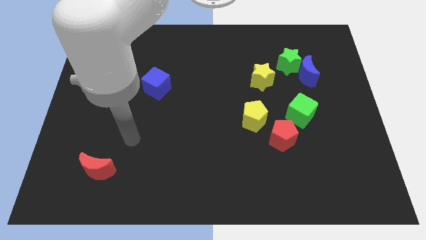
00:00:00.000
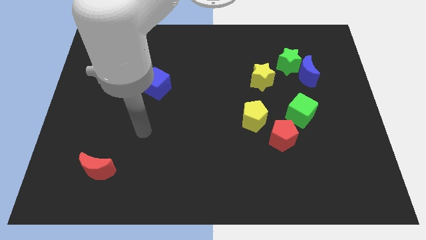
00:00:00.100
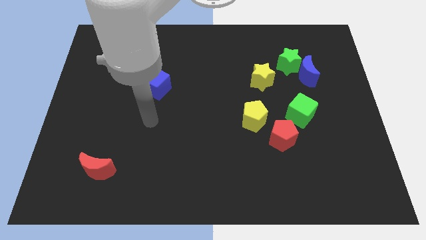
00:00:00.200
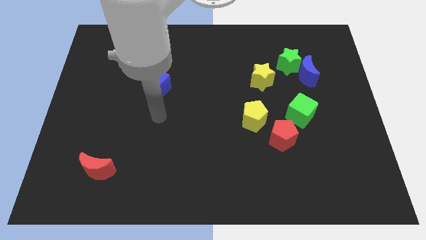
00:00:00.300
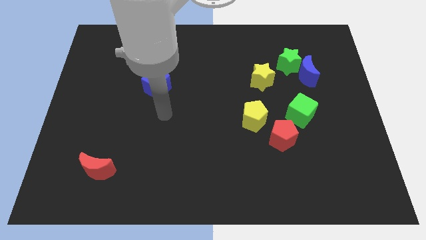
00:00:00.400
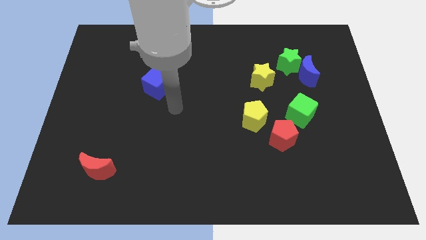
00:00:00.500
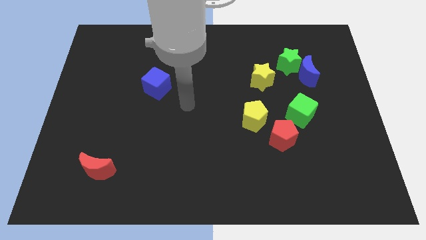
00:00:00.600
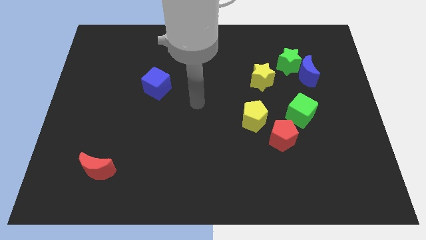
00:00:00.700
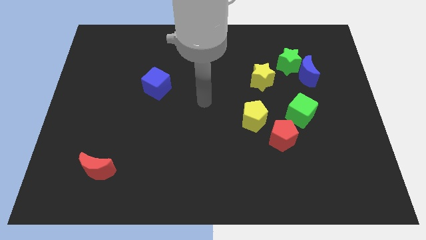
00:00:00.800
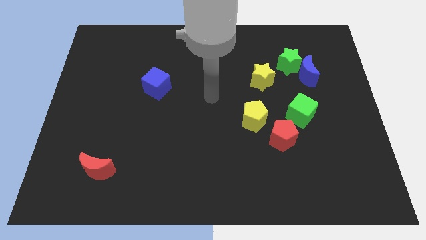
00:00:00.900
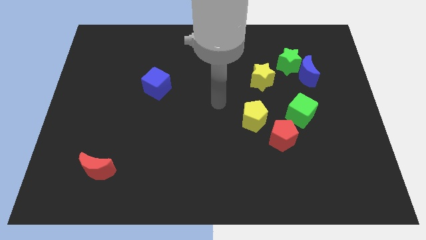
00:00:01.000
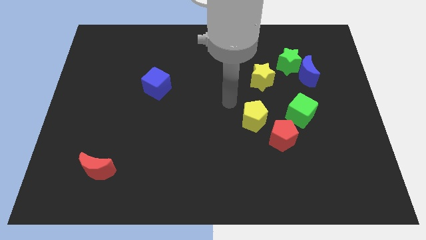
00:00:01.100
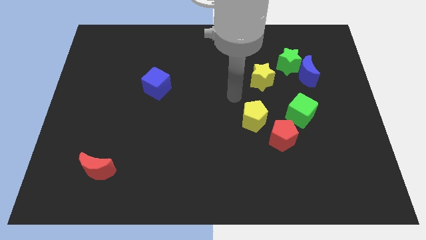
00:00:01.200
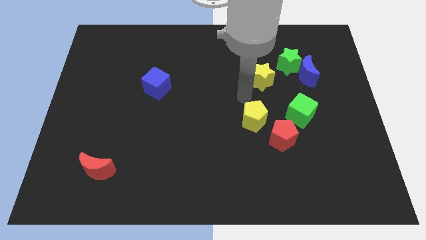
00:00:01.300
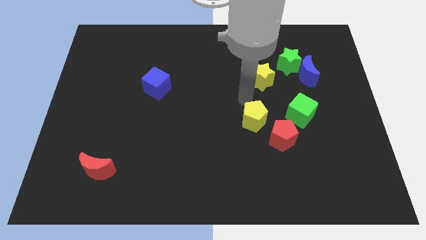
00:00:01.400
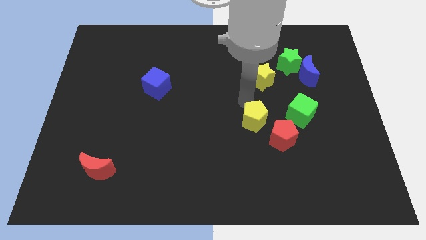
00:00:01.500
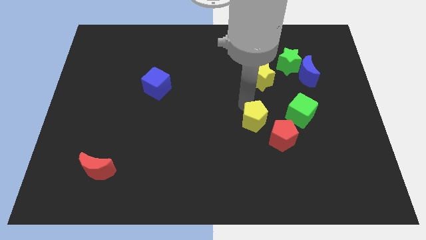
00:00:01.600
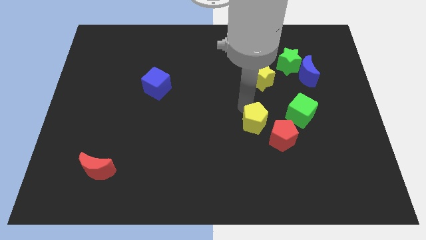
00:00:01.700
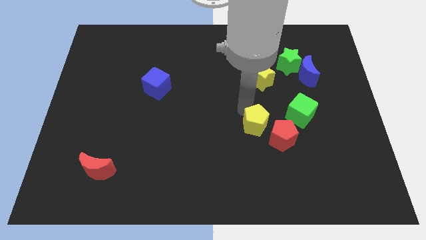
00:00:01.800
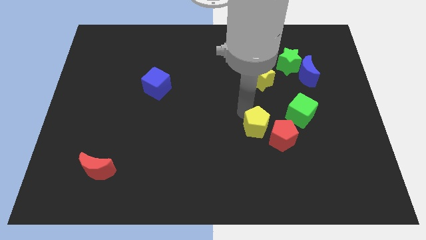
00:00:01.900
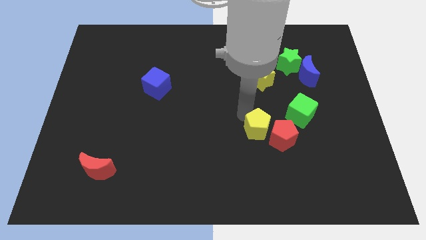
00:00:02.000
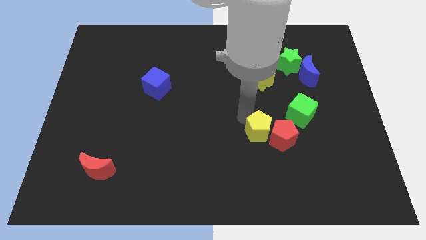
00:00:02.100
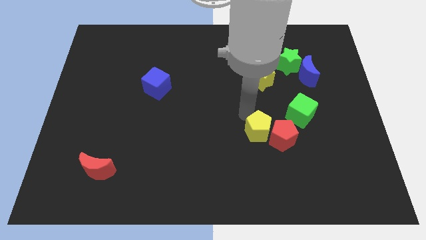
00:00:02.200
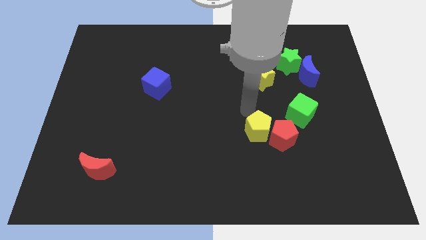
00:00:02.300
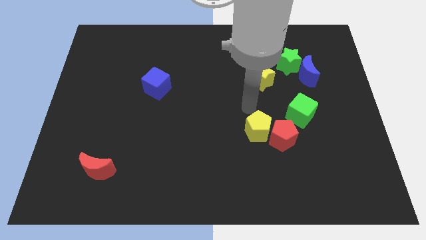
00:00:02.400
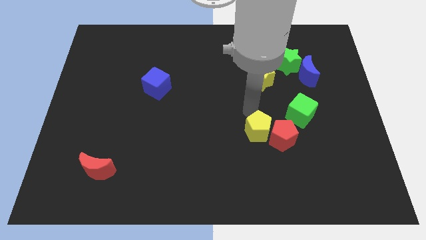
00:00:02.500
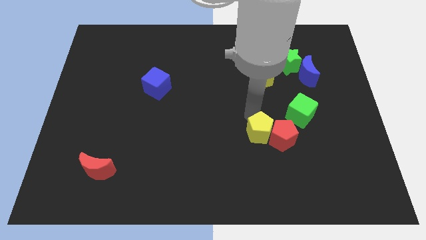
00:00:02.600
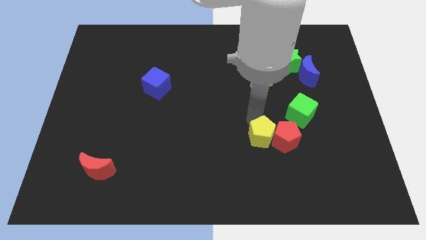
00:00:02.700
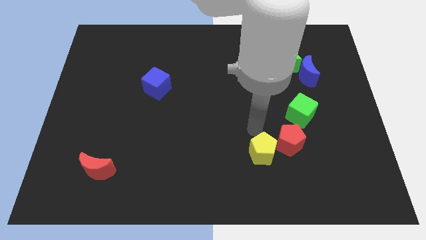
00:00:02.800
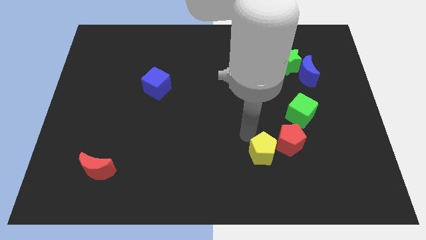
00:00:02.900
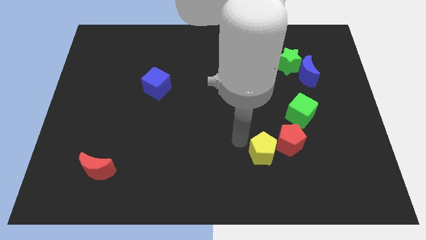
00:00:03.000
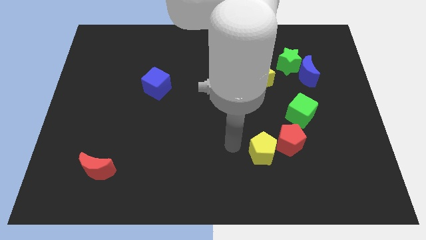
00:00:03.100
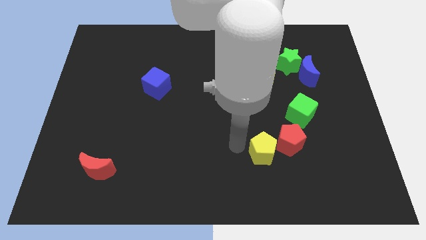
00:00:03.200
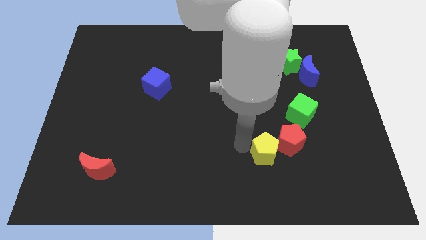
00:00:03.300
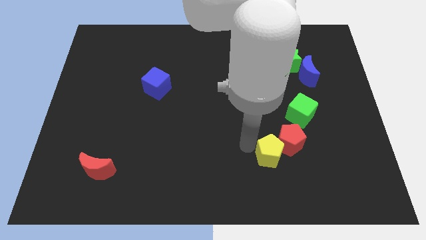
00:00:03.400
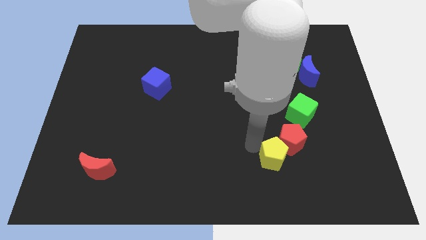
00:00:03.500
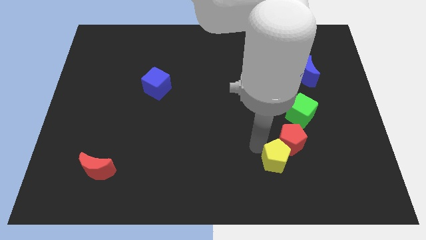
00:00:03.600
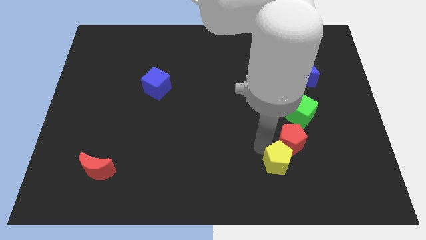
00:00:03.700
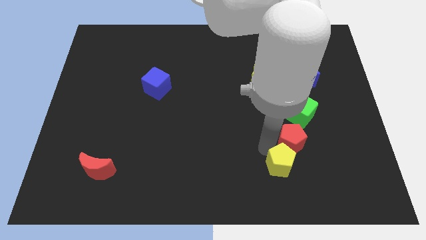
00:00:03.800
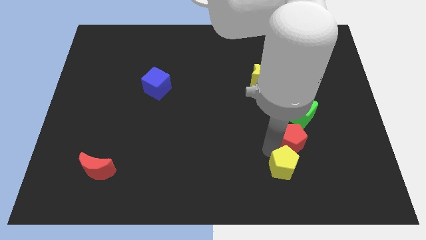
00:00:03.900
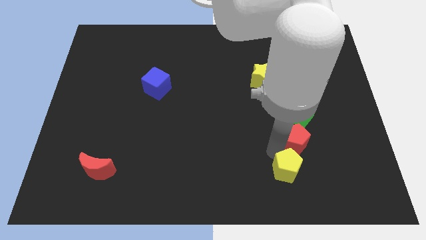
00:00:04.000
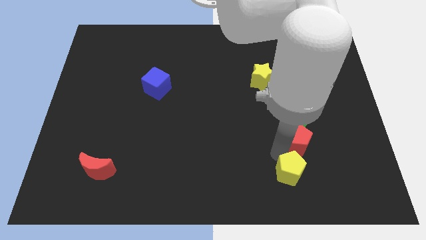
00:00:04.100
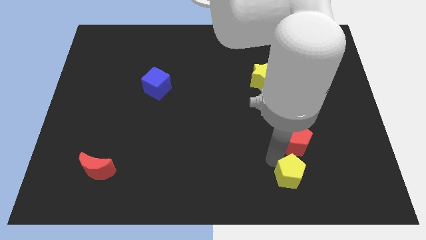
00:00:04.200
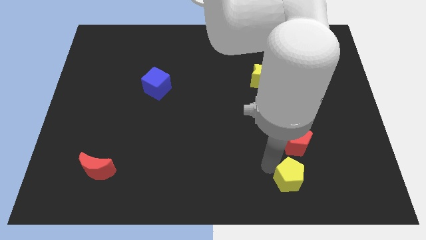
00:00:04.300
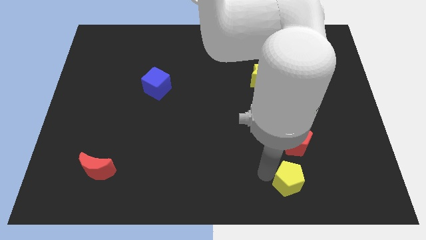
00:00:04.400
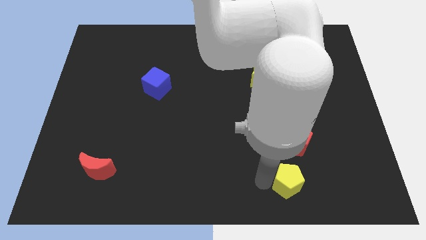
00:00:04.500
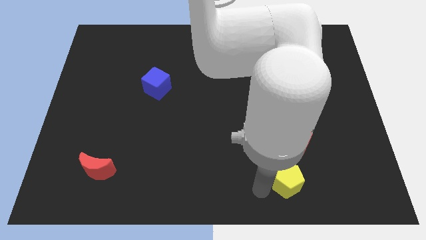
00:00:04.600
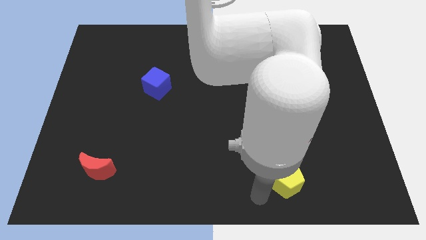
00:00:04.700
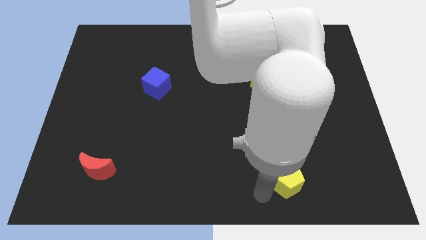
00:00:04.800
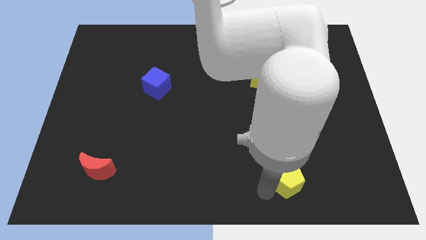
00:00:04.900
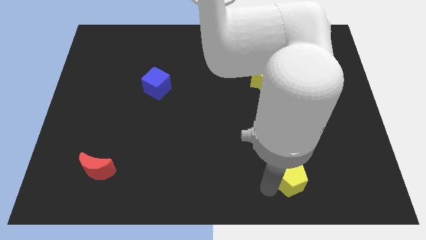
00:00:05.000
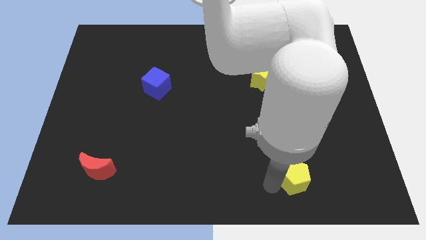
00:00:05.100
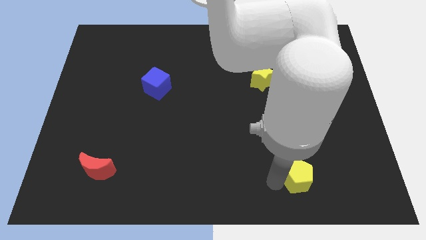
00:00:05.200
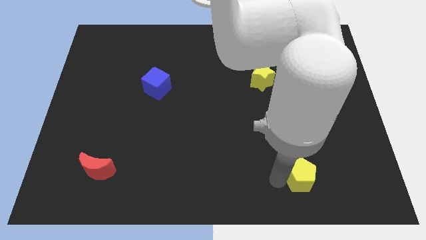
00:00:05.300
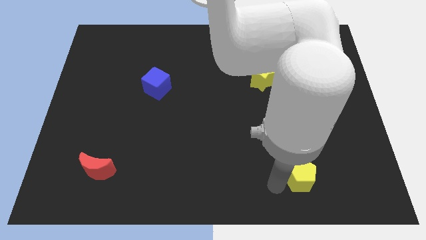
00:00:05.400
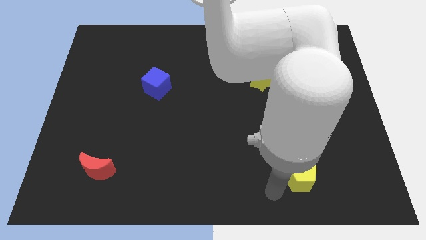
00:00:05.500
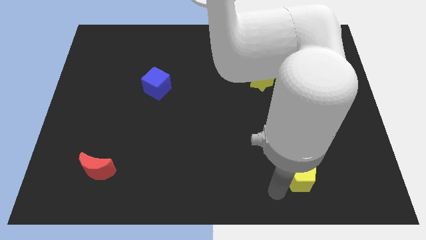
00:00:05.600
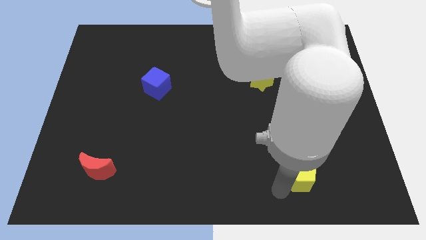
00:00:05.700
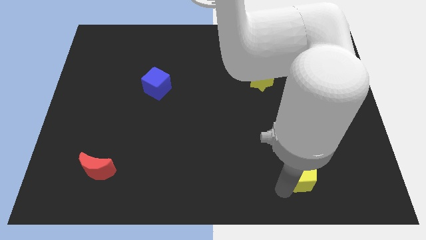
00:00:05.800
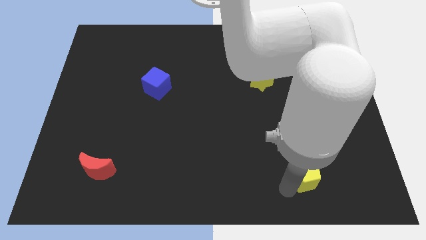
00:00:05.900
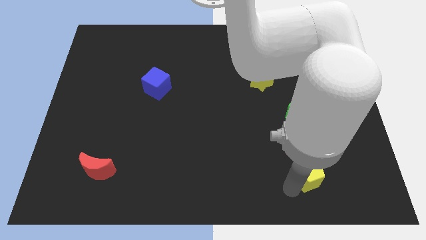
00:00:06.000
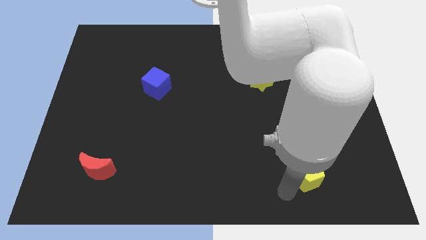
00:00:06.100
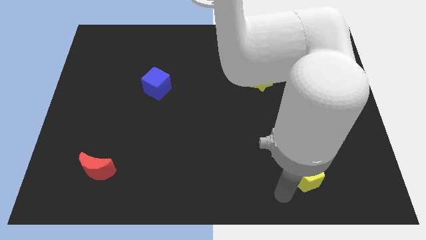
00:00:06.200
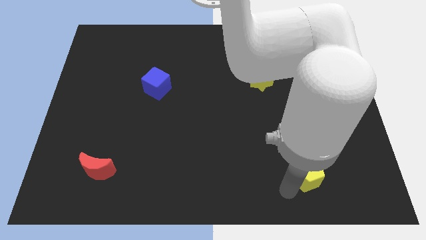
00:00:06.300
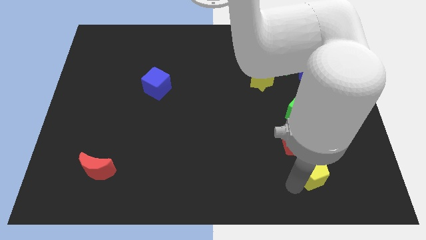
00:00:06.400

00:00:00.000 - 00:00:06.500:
put the yellow pentagon to the bottom right side of the red pentagon
